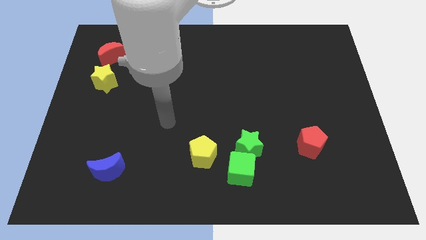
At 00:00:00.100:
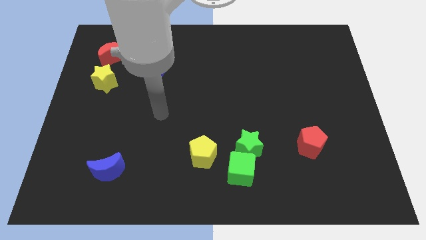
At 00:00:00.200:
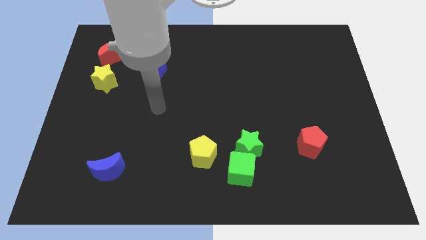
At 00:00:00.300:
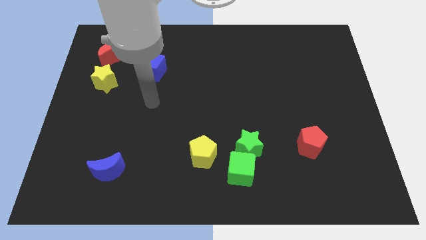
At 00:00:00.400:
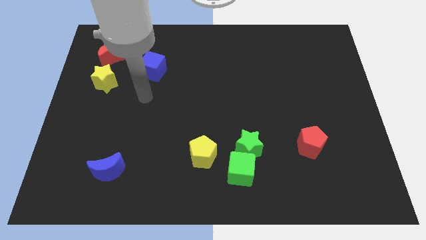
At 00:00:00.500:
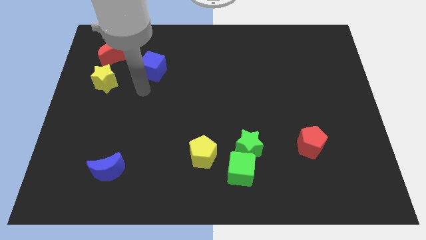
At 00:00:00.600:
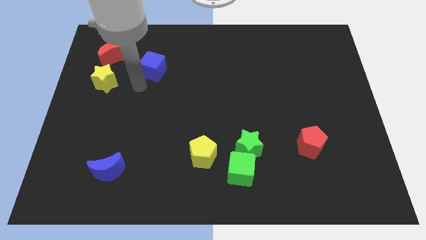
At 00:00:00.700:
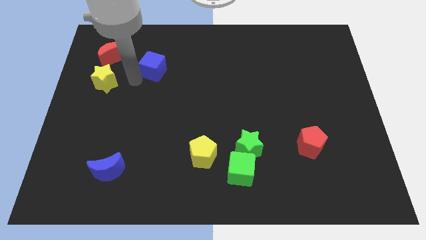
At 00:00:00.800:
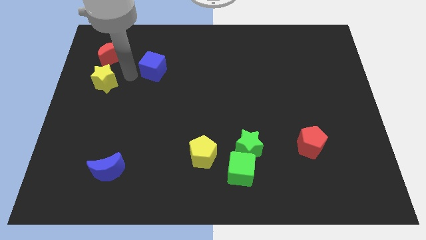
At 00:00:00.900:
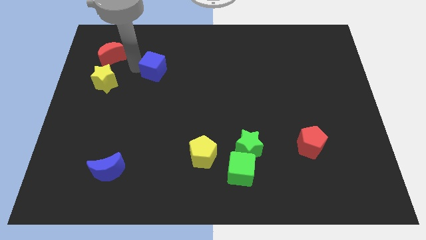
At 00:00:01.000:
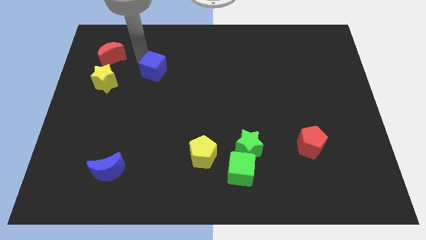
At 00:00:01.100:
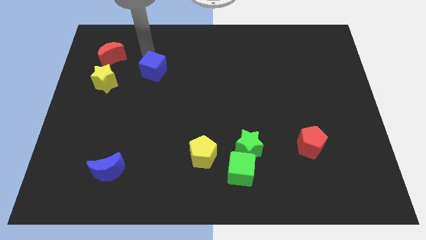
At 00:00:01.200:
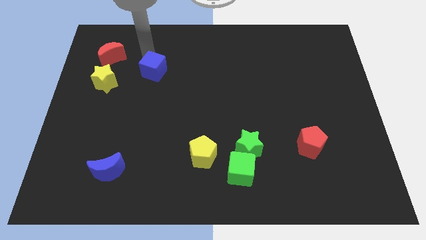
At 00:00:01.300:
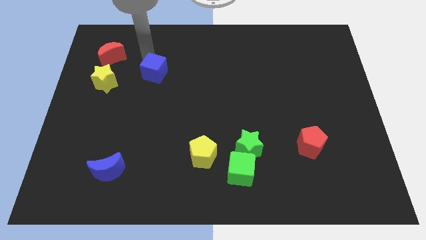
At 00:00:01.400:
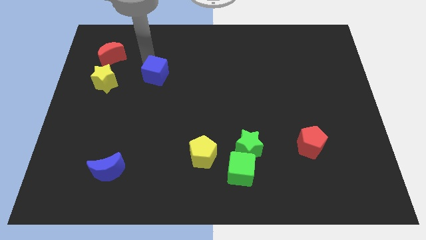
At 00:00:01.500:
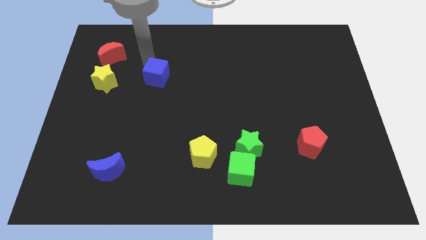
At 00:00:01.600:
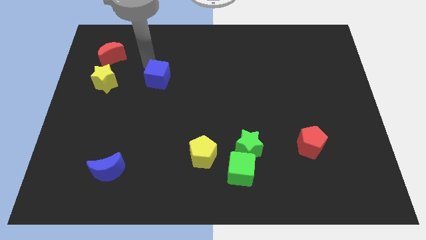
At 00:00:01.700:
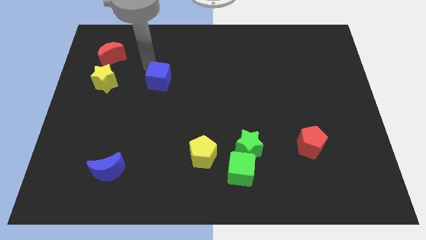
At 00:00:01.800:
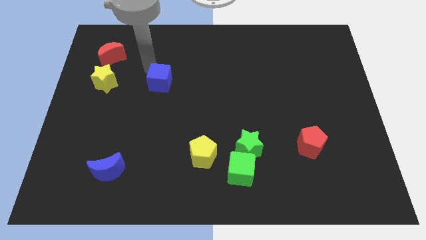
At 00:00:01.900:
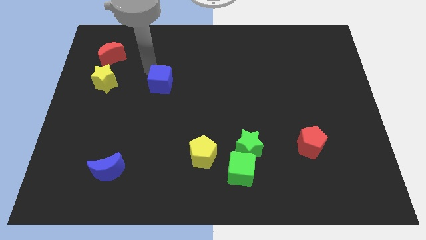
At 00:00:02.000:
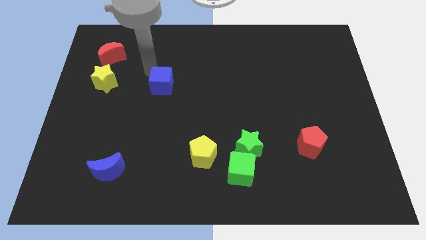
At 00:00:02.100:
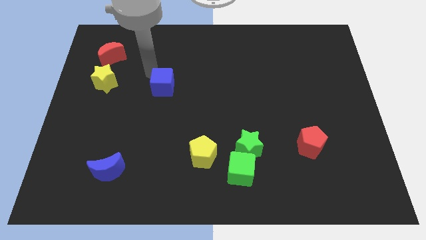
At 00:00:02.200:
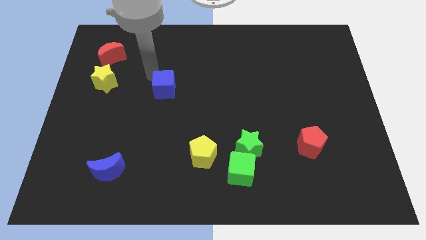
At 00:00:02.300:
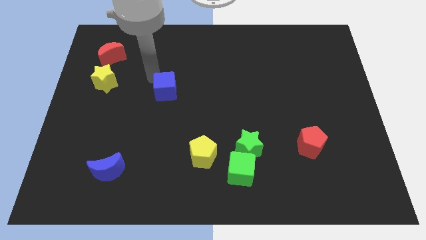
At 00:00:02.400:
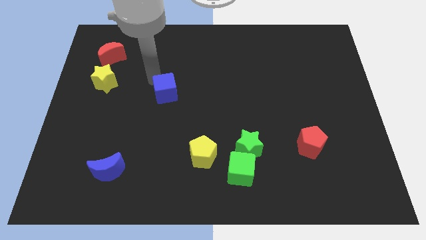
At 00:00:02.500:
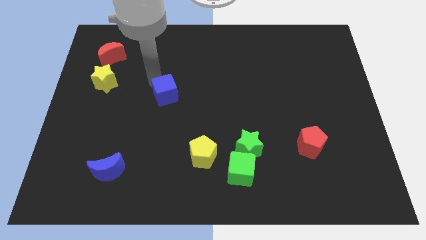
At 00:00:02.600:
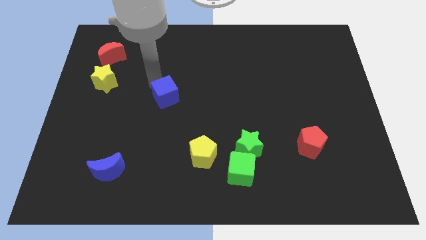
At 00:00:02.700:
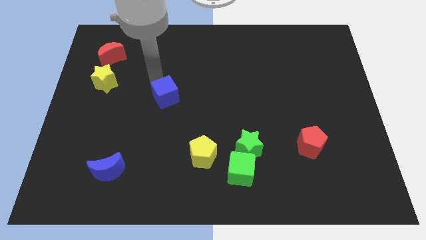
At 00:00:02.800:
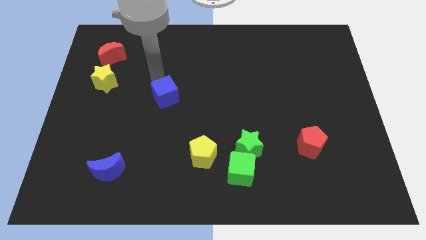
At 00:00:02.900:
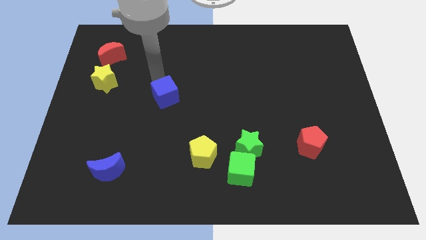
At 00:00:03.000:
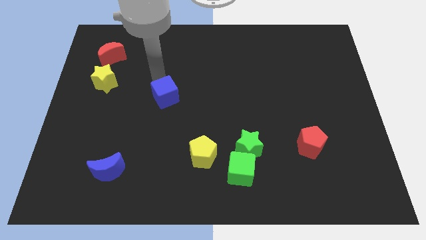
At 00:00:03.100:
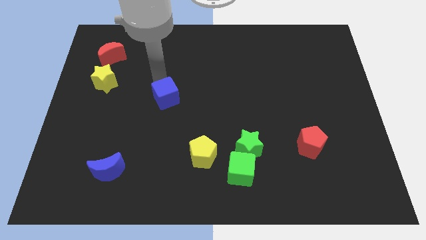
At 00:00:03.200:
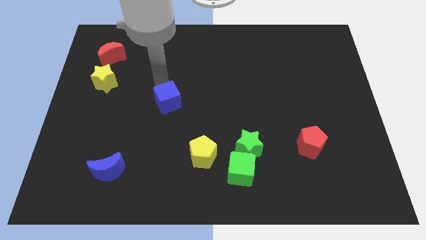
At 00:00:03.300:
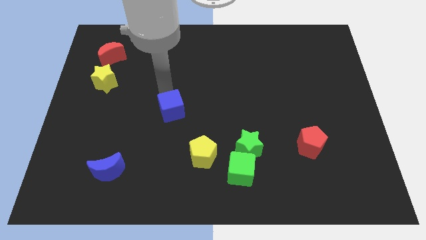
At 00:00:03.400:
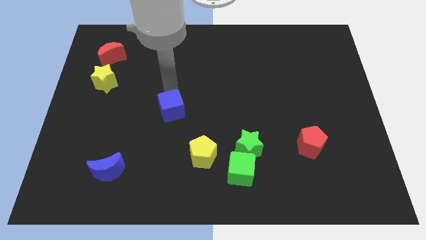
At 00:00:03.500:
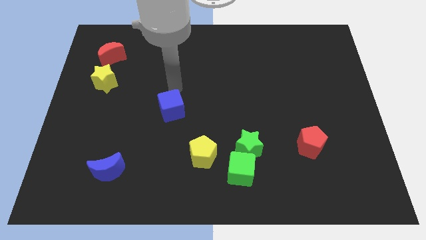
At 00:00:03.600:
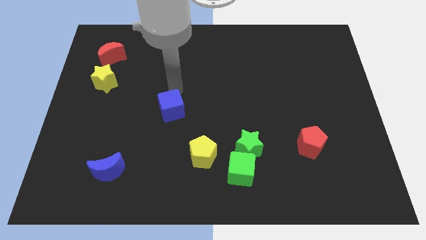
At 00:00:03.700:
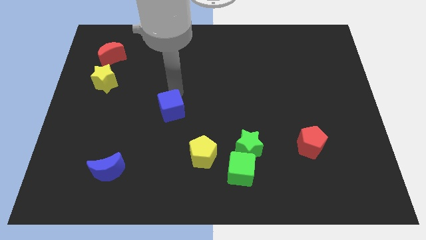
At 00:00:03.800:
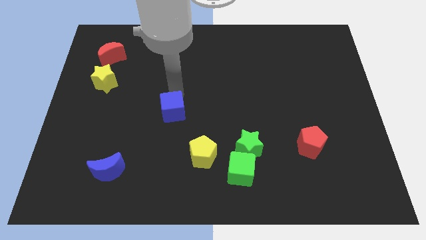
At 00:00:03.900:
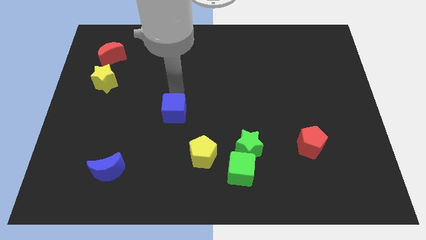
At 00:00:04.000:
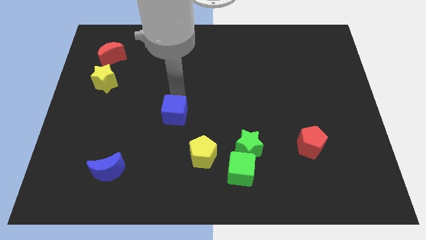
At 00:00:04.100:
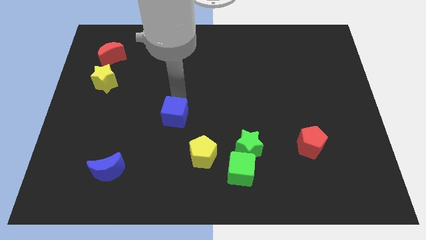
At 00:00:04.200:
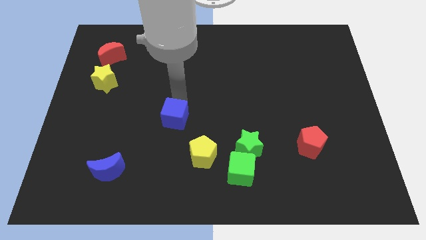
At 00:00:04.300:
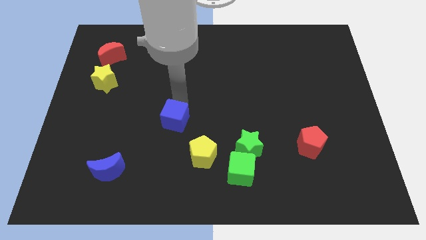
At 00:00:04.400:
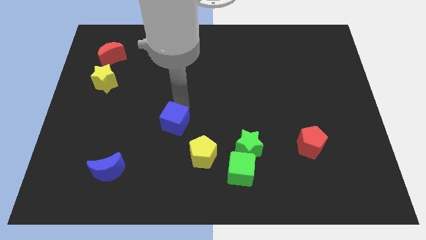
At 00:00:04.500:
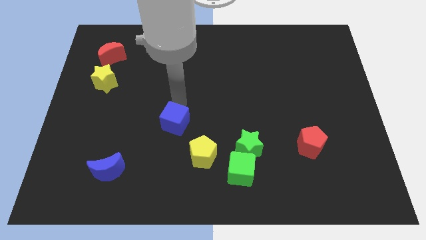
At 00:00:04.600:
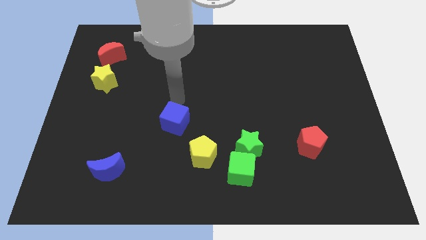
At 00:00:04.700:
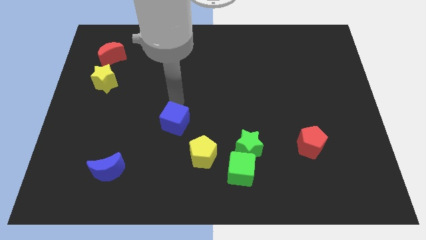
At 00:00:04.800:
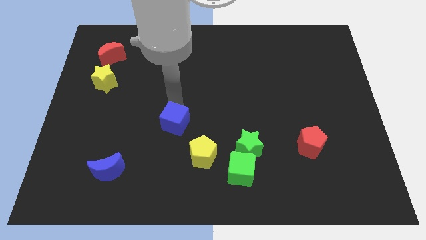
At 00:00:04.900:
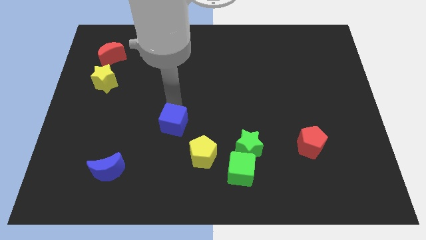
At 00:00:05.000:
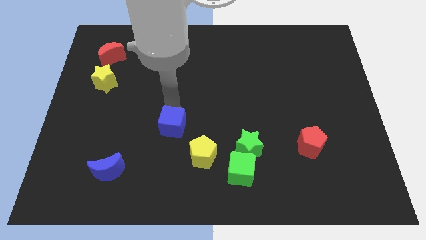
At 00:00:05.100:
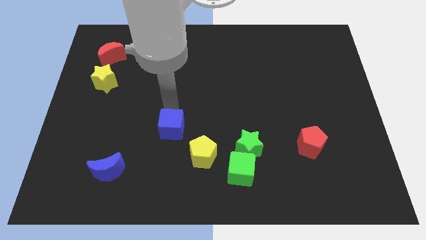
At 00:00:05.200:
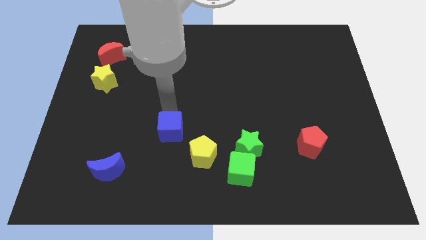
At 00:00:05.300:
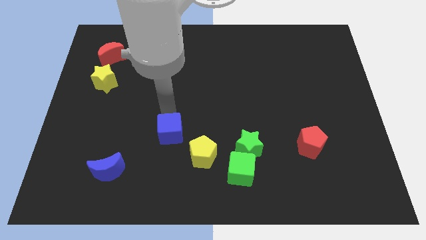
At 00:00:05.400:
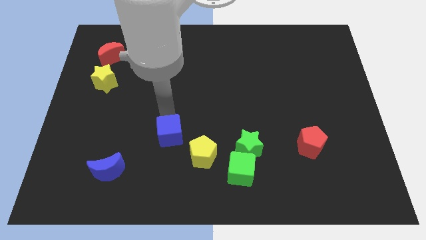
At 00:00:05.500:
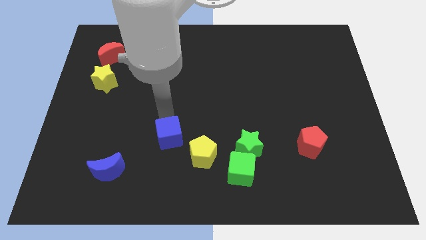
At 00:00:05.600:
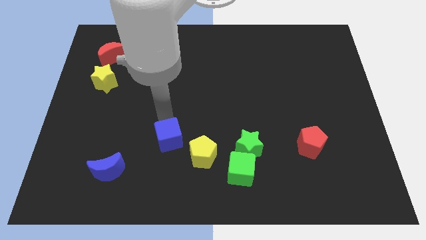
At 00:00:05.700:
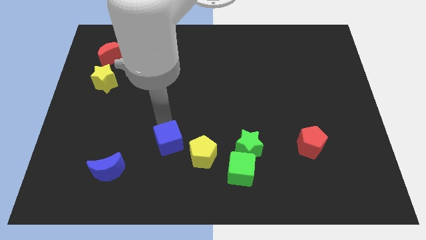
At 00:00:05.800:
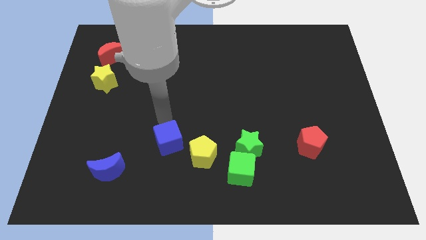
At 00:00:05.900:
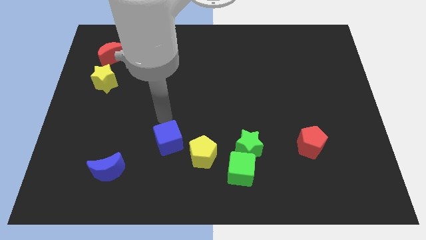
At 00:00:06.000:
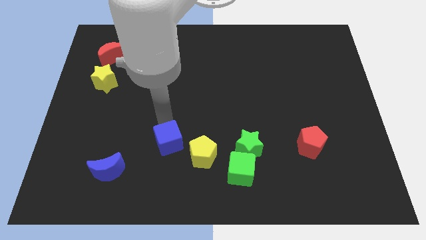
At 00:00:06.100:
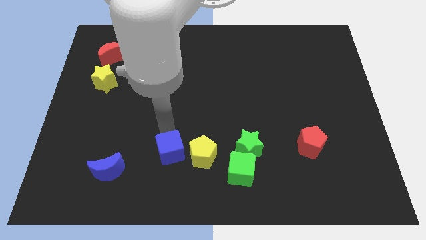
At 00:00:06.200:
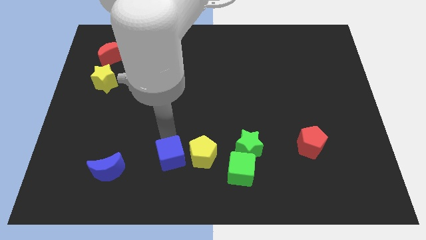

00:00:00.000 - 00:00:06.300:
put the blue cube to the bottom left of the yellow pentagon

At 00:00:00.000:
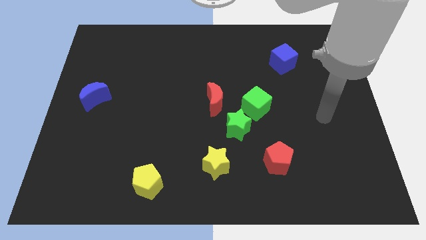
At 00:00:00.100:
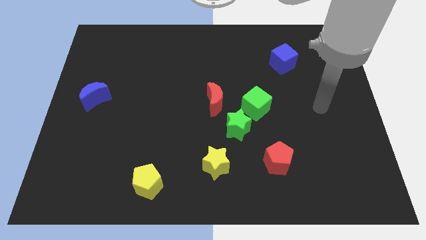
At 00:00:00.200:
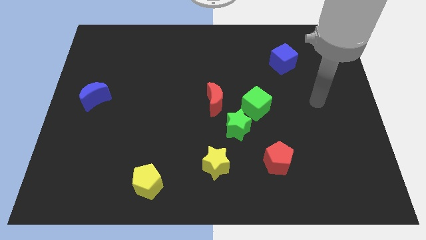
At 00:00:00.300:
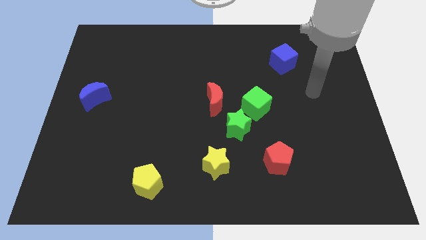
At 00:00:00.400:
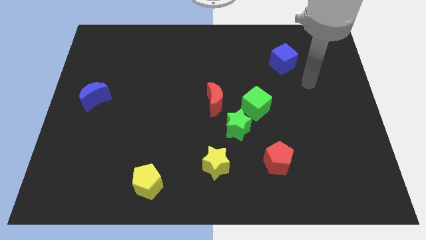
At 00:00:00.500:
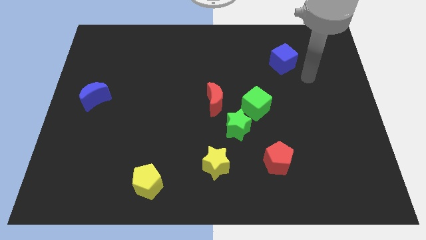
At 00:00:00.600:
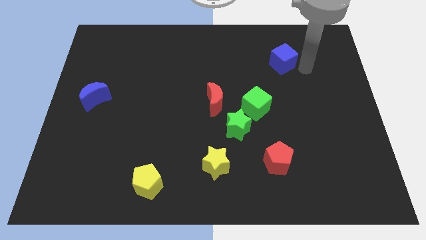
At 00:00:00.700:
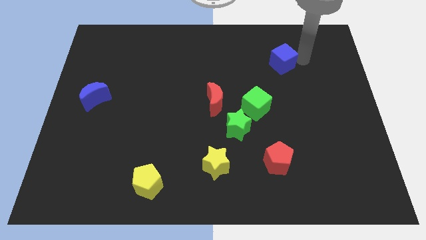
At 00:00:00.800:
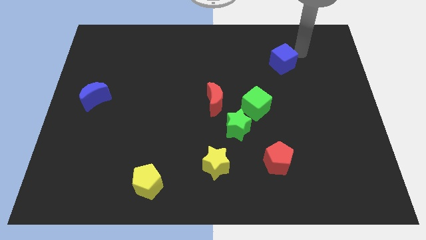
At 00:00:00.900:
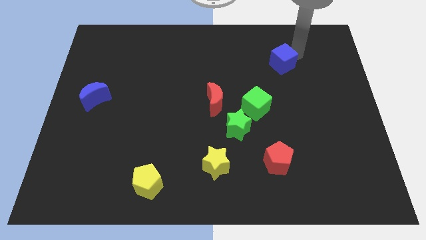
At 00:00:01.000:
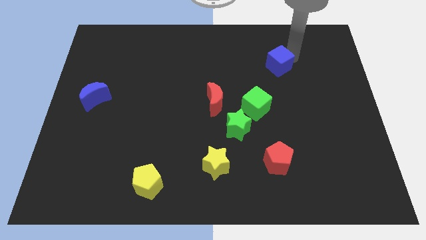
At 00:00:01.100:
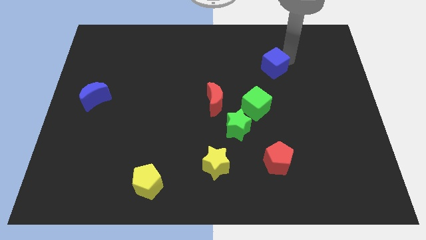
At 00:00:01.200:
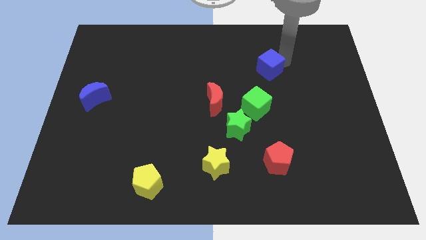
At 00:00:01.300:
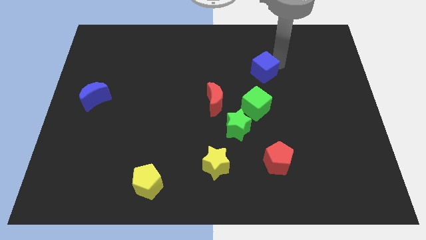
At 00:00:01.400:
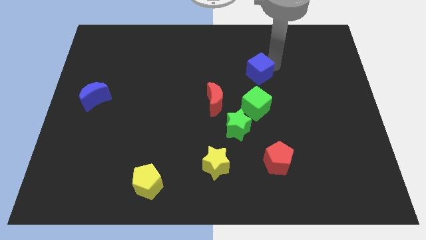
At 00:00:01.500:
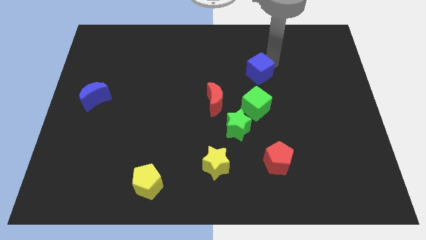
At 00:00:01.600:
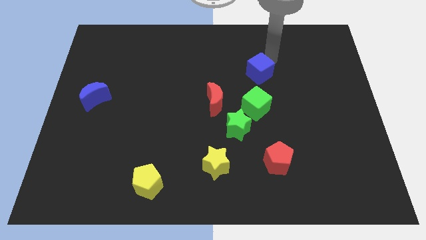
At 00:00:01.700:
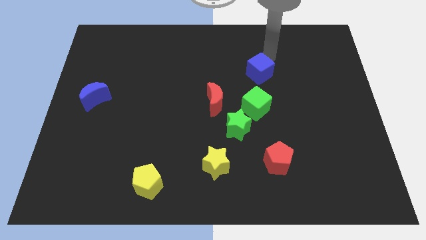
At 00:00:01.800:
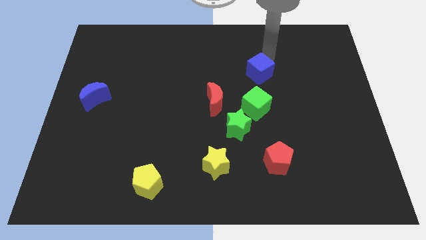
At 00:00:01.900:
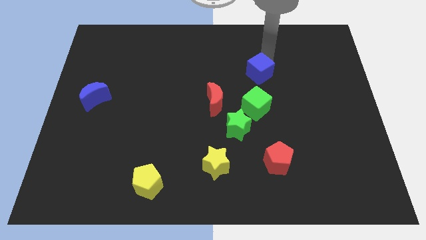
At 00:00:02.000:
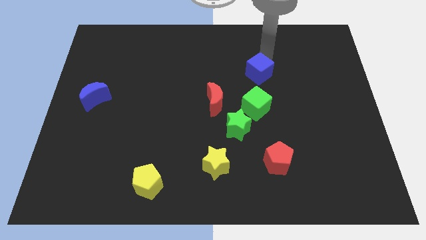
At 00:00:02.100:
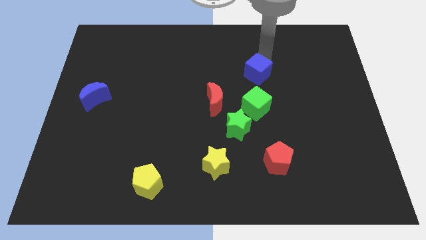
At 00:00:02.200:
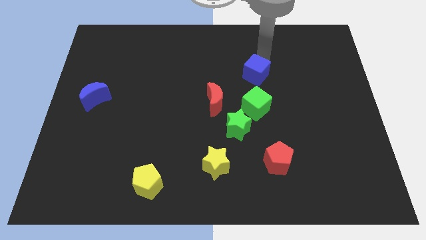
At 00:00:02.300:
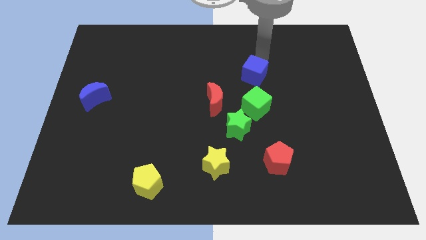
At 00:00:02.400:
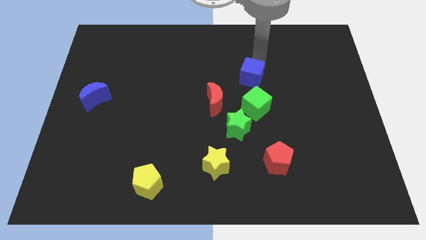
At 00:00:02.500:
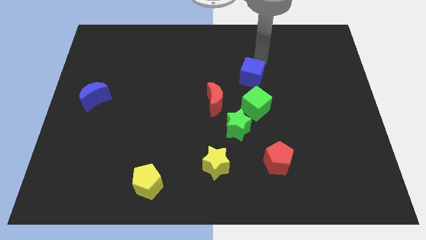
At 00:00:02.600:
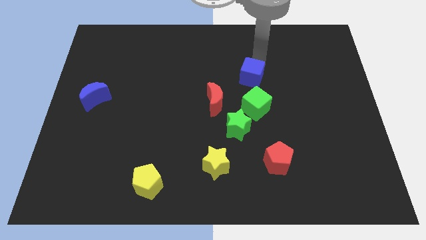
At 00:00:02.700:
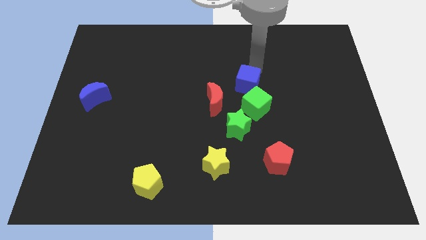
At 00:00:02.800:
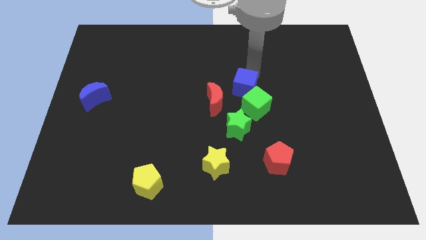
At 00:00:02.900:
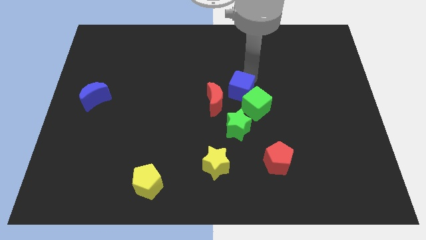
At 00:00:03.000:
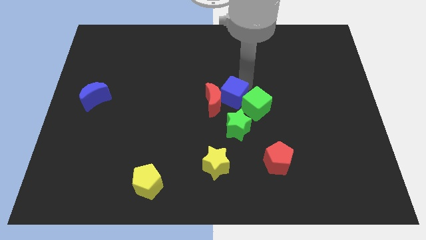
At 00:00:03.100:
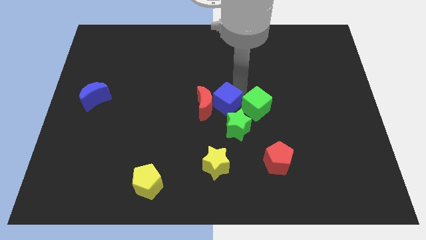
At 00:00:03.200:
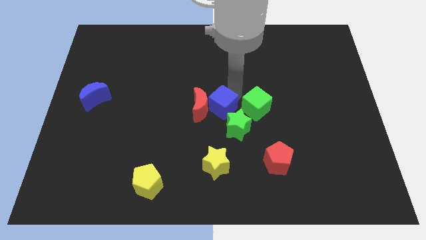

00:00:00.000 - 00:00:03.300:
push the blue cube to the top side of the yellow star
